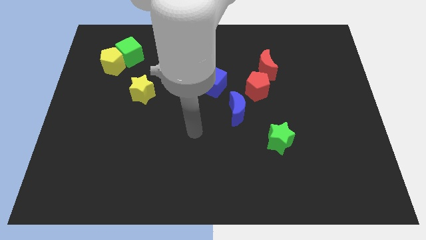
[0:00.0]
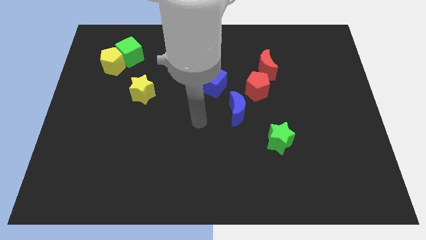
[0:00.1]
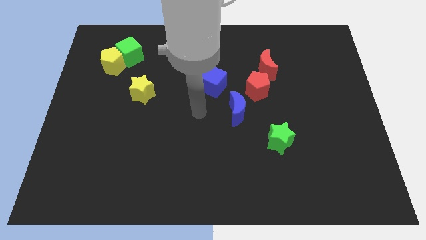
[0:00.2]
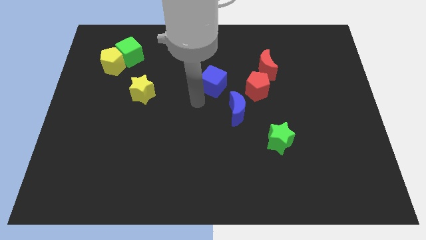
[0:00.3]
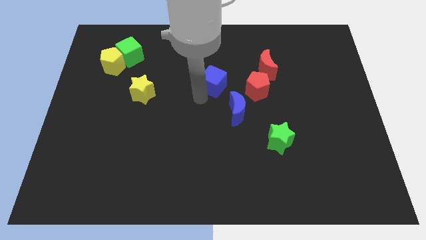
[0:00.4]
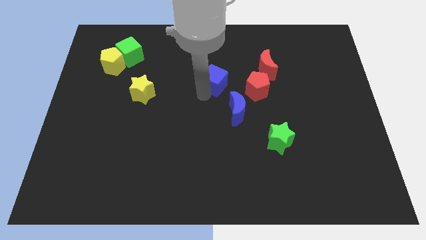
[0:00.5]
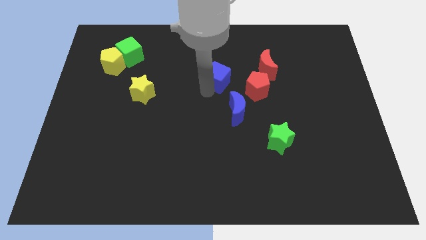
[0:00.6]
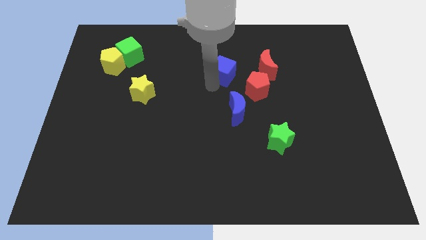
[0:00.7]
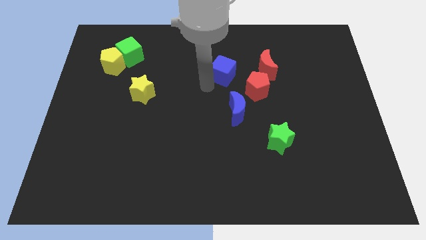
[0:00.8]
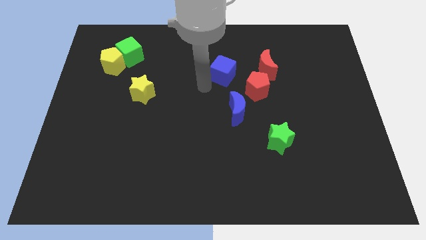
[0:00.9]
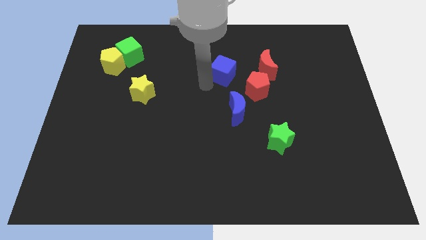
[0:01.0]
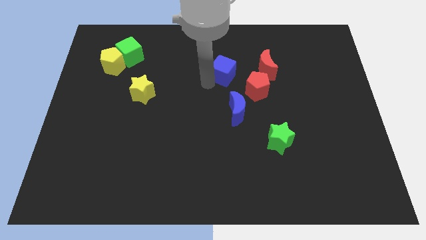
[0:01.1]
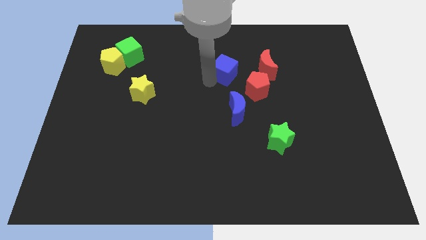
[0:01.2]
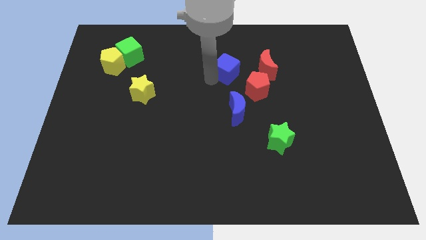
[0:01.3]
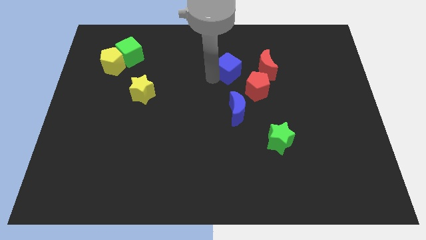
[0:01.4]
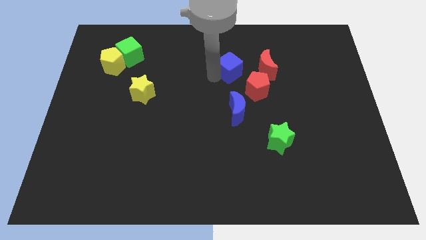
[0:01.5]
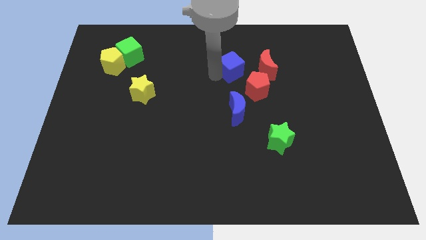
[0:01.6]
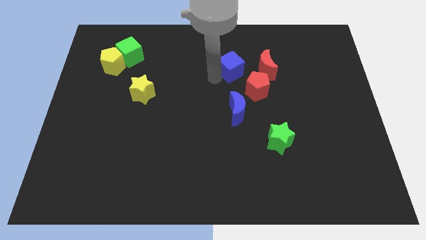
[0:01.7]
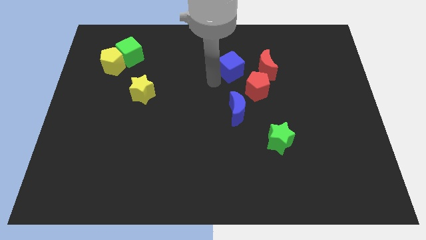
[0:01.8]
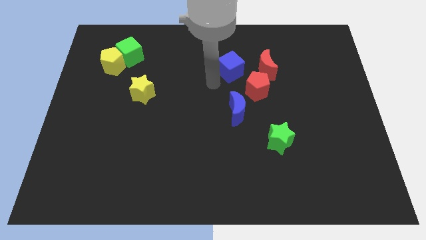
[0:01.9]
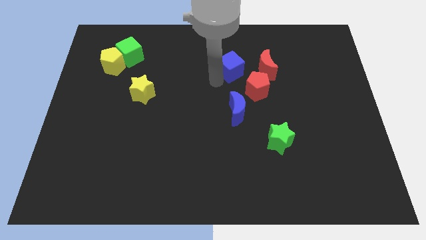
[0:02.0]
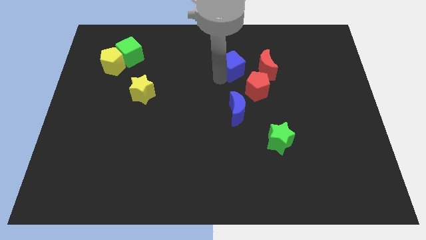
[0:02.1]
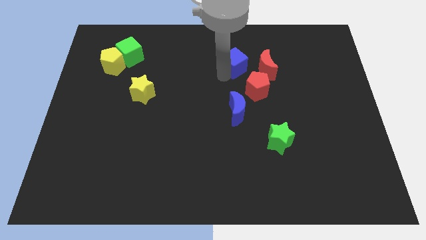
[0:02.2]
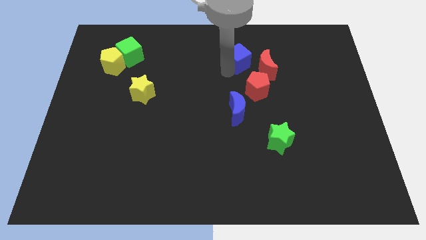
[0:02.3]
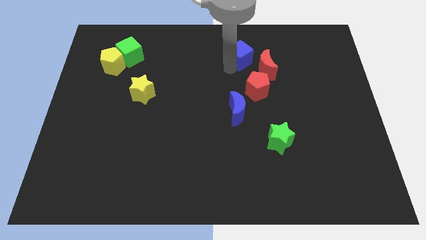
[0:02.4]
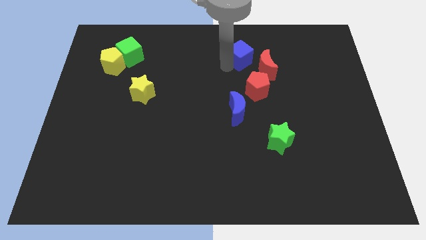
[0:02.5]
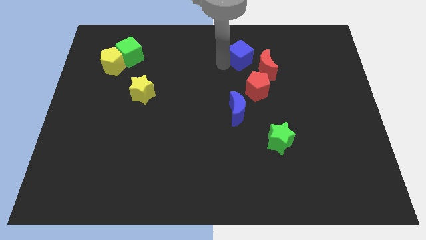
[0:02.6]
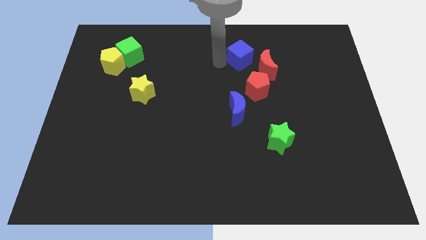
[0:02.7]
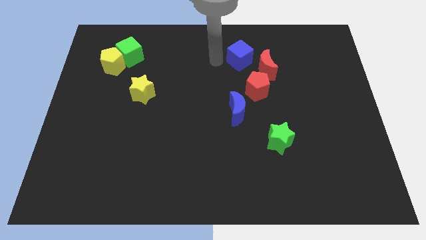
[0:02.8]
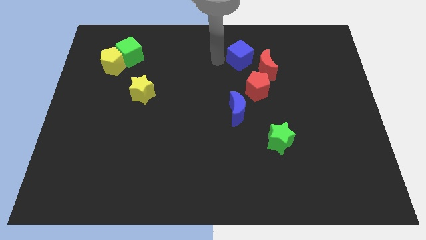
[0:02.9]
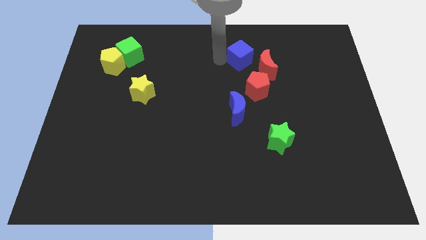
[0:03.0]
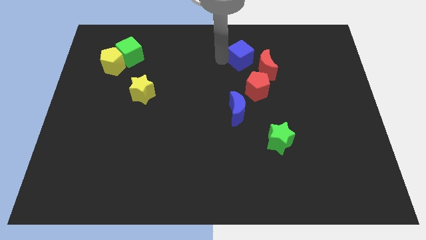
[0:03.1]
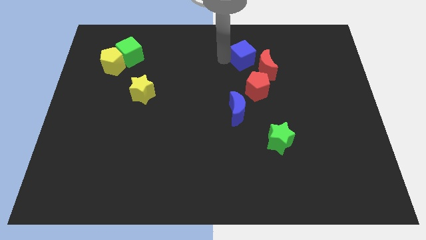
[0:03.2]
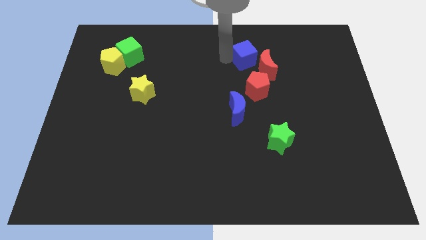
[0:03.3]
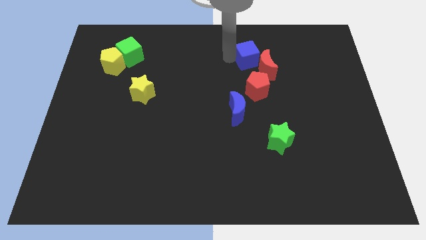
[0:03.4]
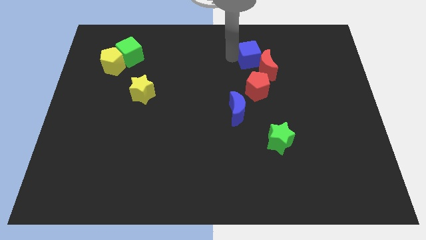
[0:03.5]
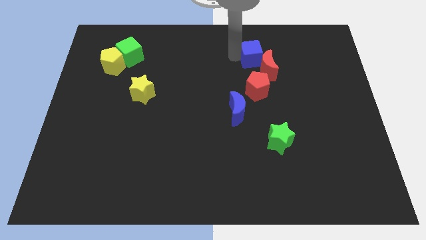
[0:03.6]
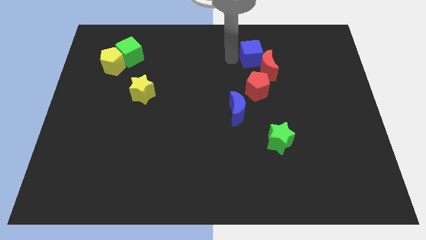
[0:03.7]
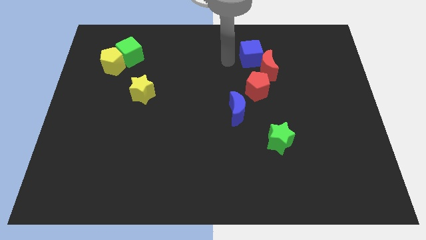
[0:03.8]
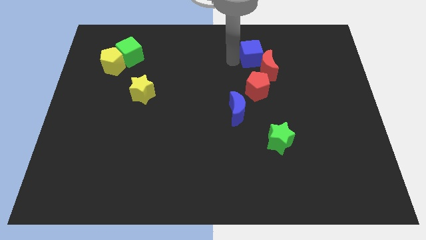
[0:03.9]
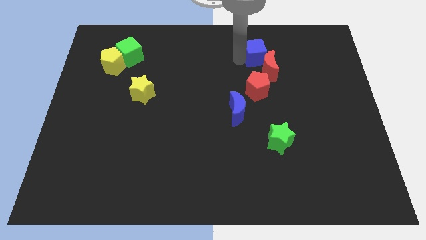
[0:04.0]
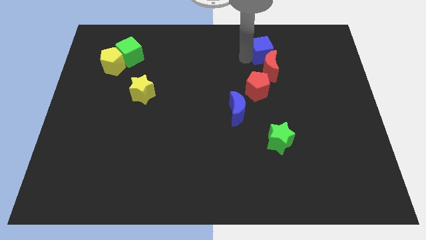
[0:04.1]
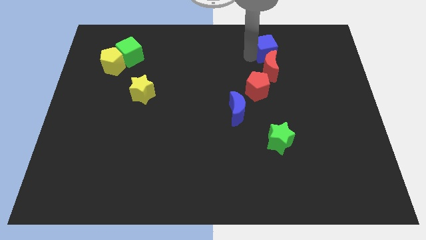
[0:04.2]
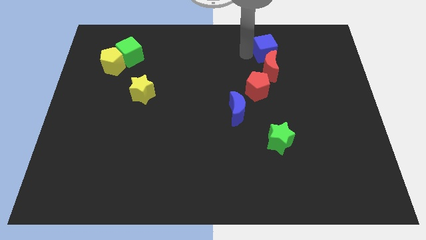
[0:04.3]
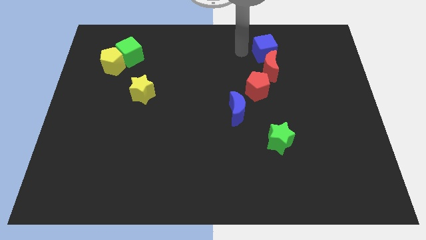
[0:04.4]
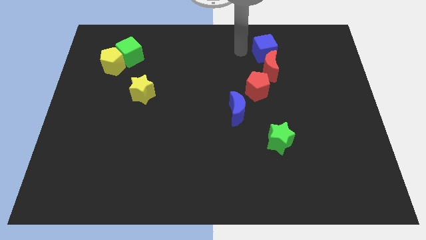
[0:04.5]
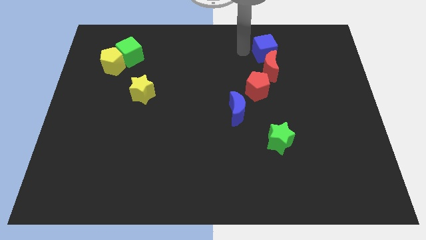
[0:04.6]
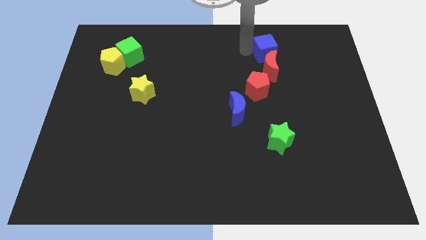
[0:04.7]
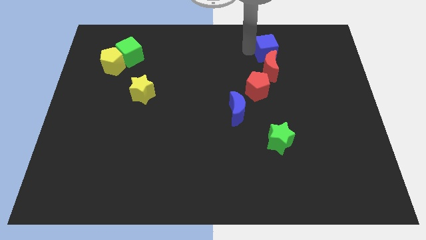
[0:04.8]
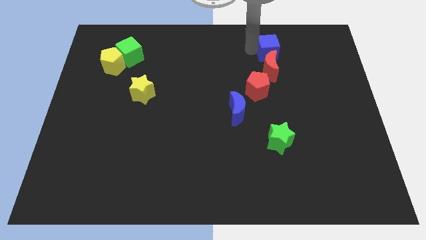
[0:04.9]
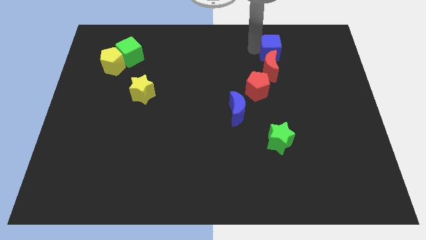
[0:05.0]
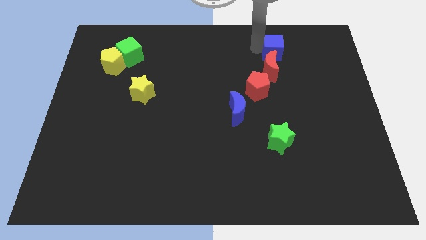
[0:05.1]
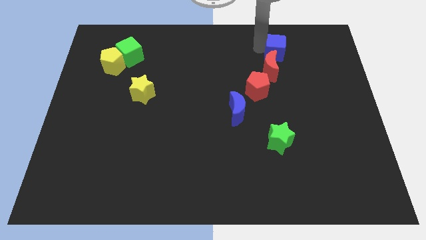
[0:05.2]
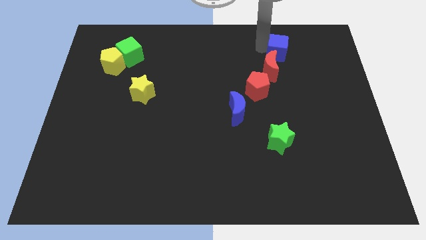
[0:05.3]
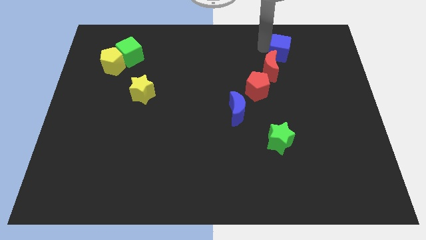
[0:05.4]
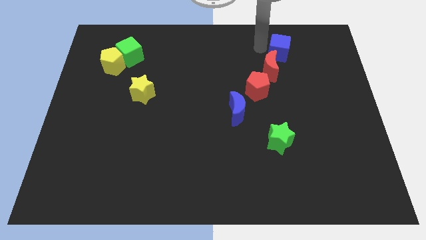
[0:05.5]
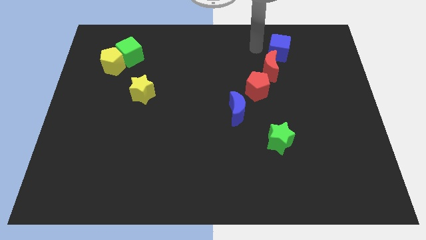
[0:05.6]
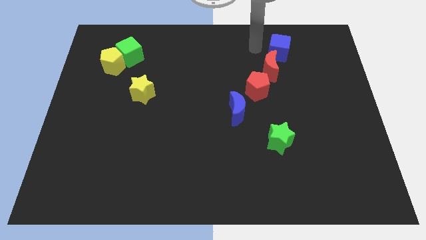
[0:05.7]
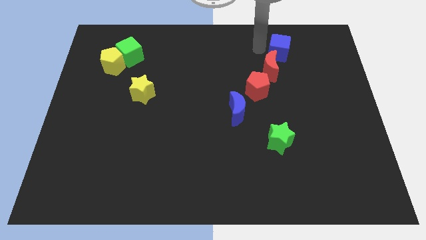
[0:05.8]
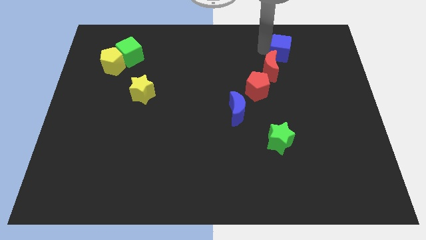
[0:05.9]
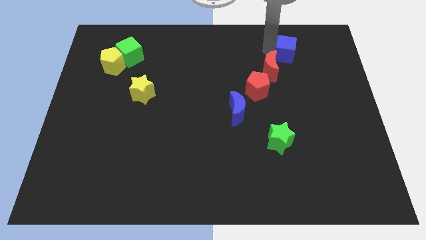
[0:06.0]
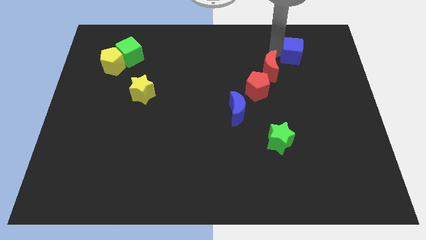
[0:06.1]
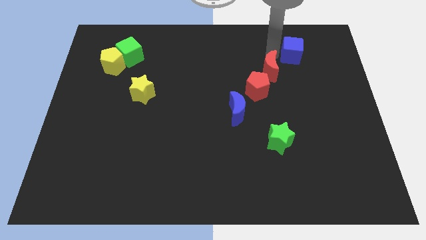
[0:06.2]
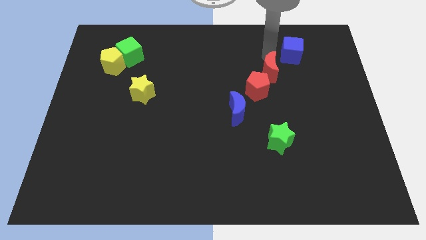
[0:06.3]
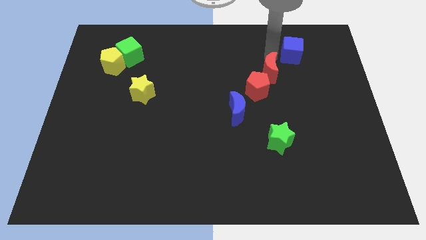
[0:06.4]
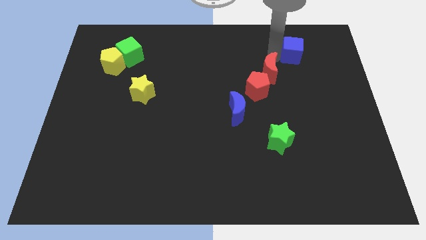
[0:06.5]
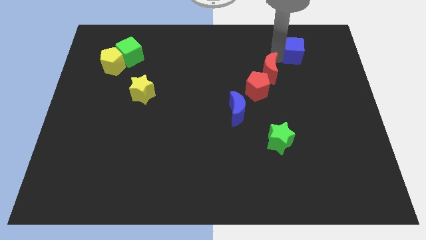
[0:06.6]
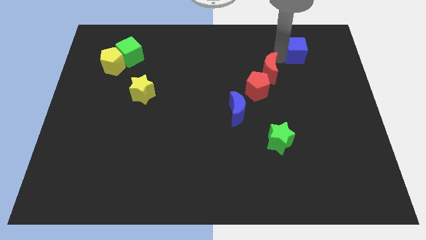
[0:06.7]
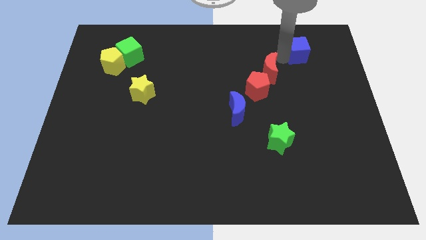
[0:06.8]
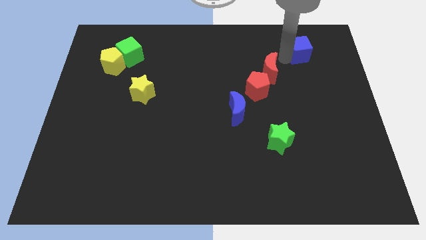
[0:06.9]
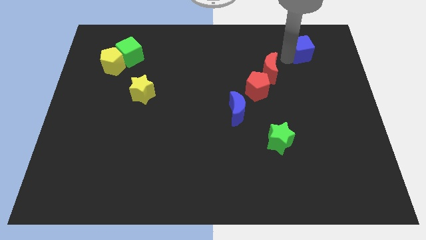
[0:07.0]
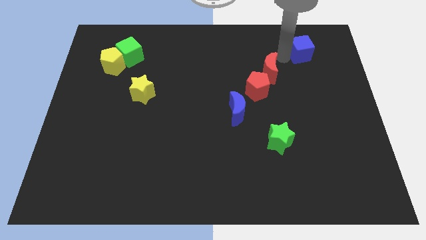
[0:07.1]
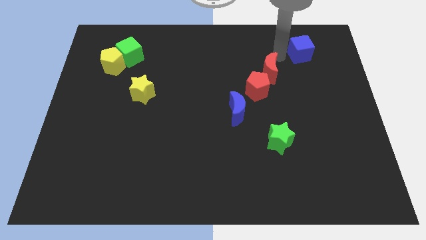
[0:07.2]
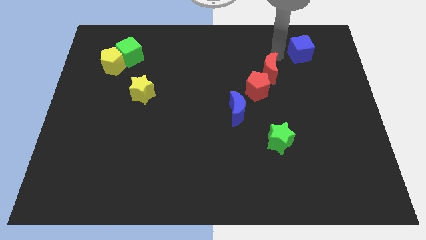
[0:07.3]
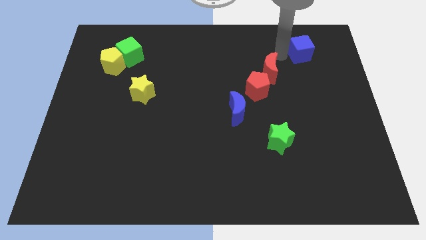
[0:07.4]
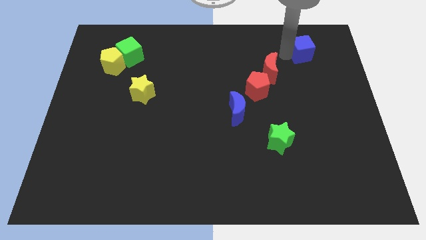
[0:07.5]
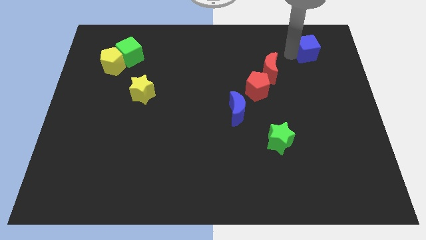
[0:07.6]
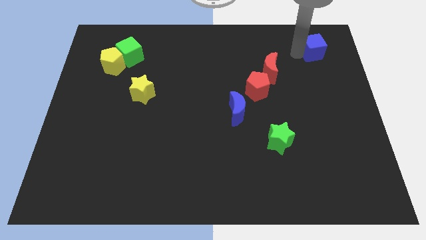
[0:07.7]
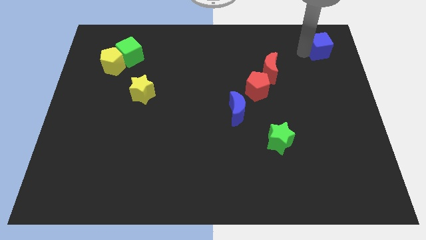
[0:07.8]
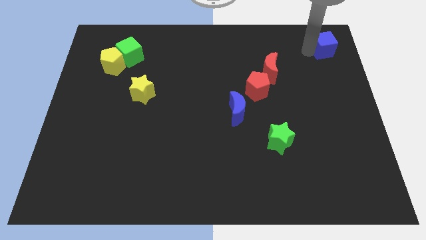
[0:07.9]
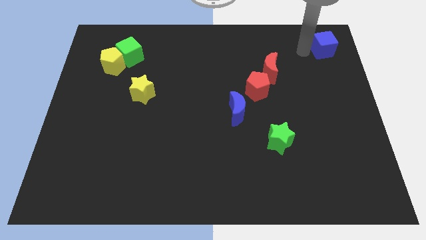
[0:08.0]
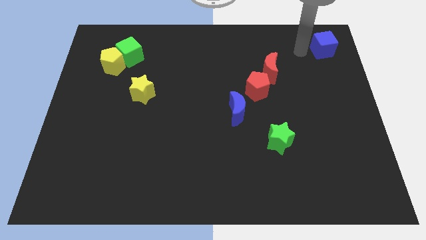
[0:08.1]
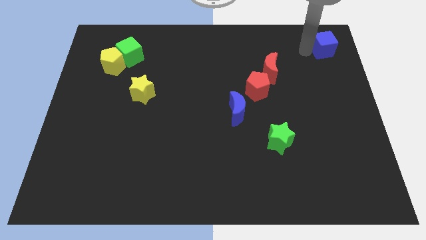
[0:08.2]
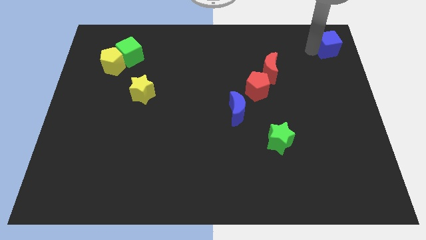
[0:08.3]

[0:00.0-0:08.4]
move the blue cube to the top right of the board
